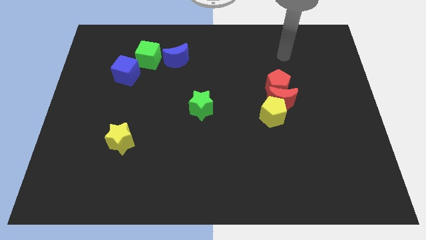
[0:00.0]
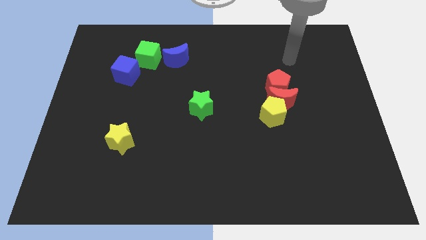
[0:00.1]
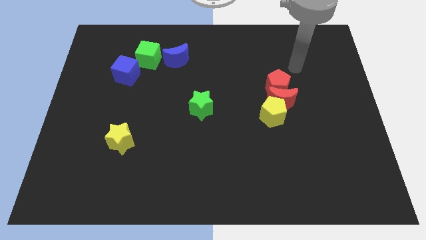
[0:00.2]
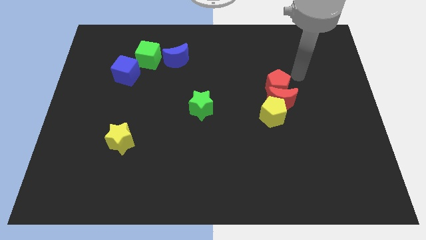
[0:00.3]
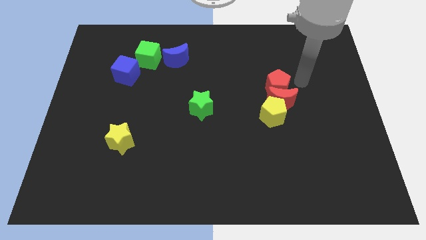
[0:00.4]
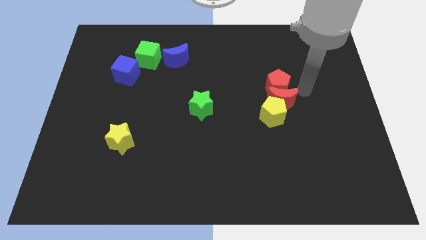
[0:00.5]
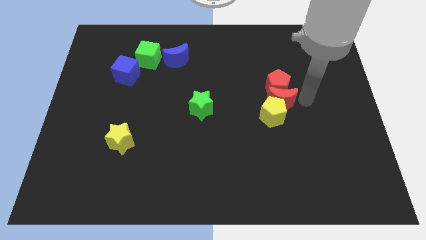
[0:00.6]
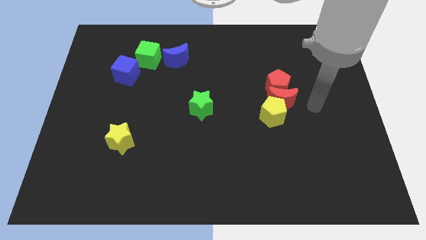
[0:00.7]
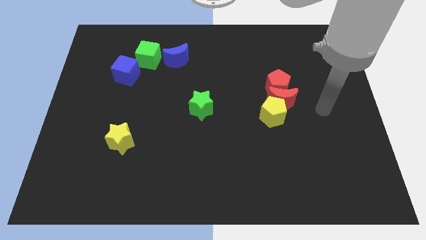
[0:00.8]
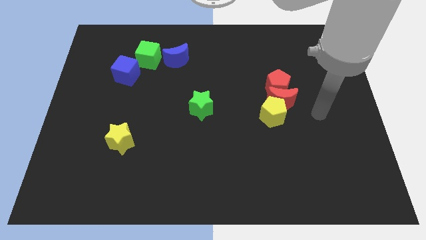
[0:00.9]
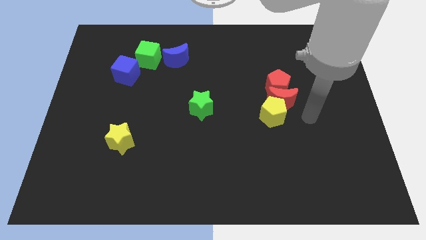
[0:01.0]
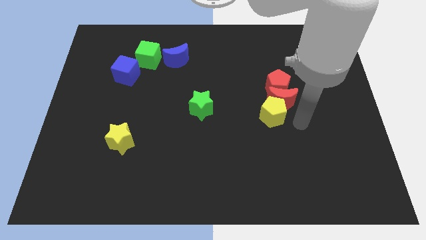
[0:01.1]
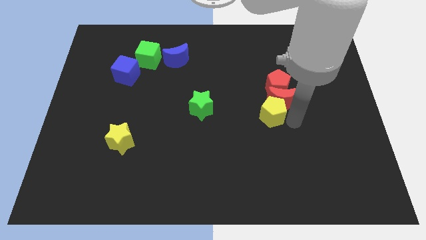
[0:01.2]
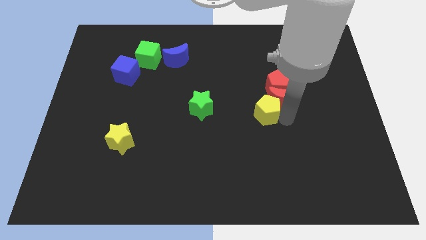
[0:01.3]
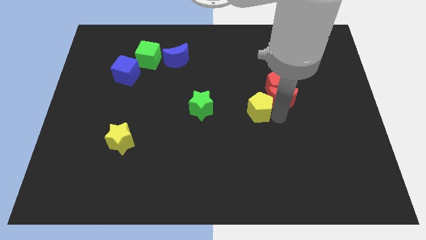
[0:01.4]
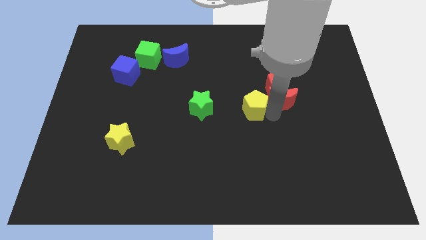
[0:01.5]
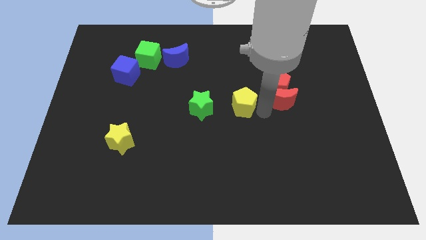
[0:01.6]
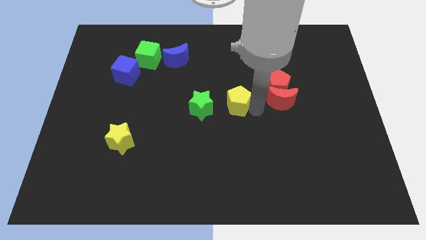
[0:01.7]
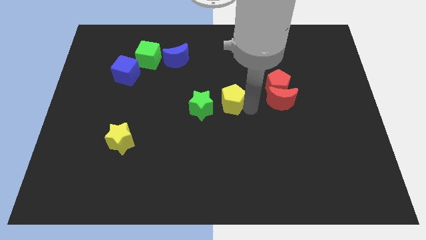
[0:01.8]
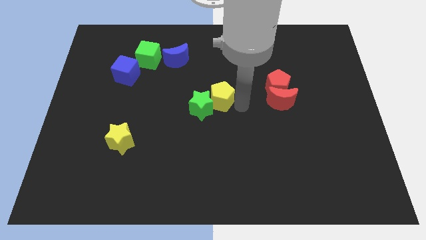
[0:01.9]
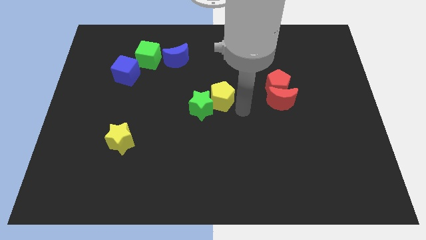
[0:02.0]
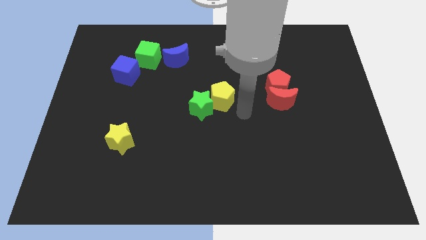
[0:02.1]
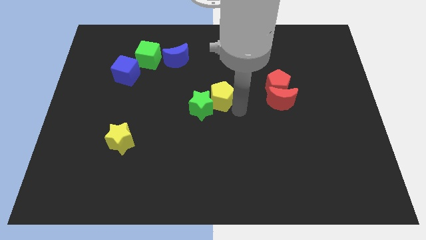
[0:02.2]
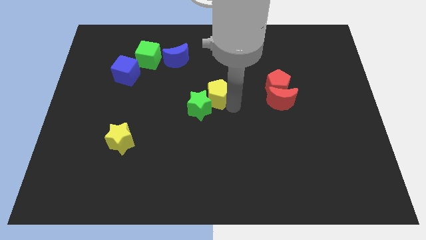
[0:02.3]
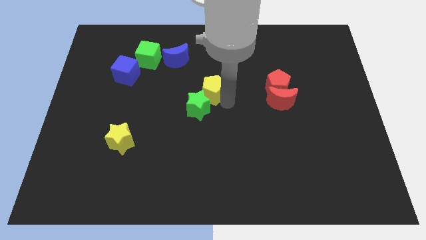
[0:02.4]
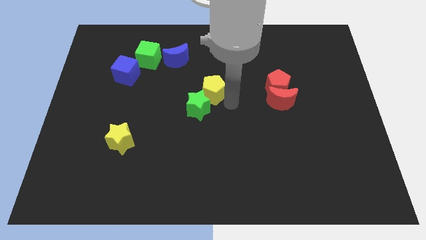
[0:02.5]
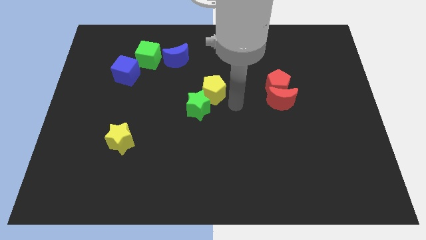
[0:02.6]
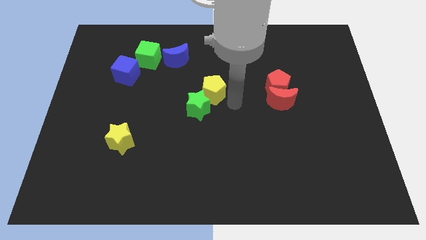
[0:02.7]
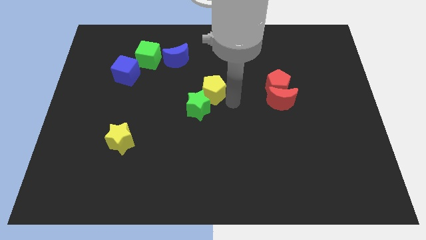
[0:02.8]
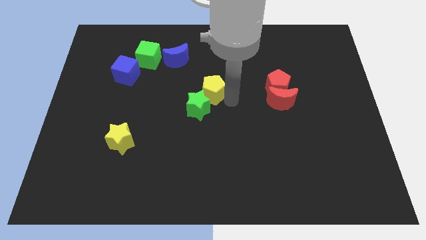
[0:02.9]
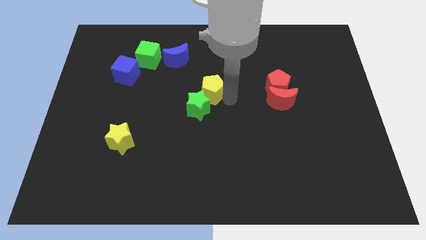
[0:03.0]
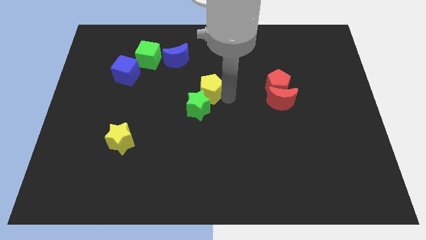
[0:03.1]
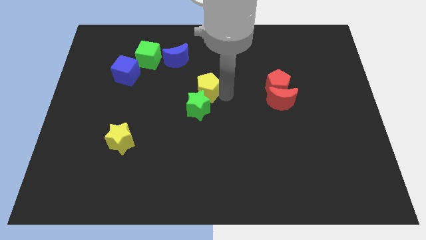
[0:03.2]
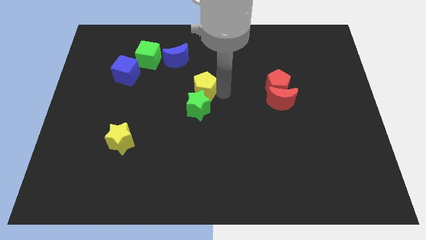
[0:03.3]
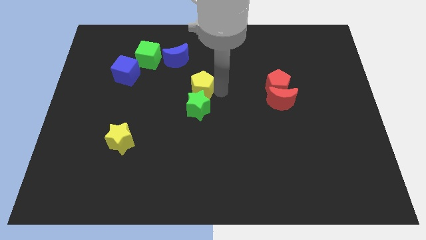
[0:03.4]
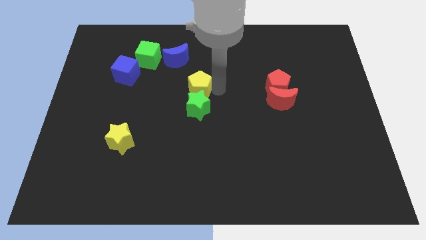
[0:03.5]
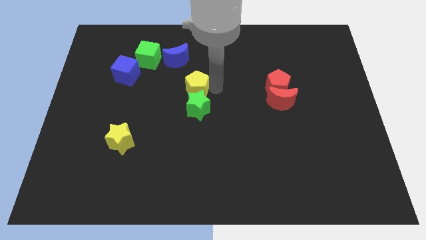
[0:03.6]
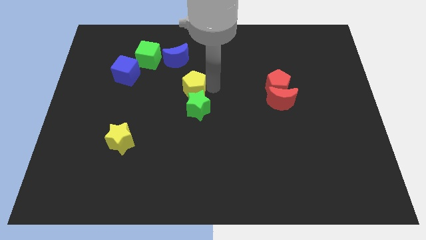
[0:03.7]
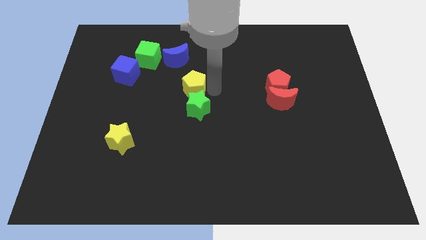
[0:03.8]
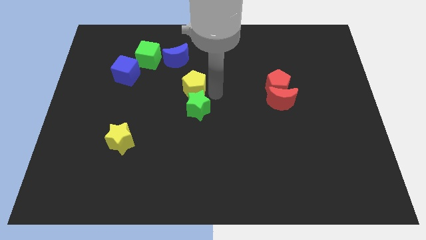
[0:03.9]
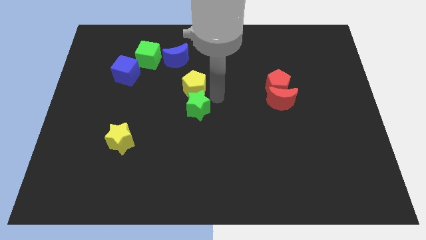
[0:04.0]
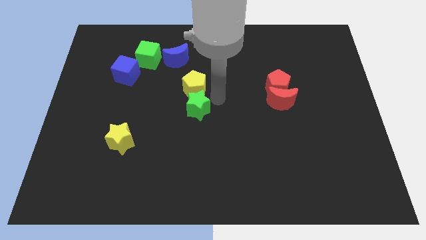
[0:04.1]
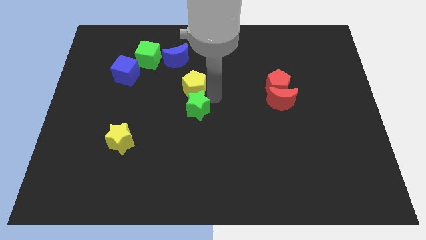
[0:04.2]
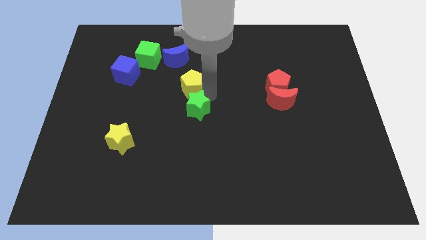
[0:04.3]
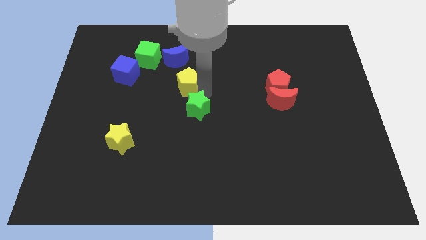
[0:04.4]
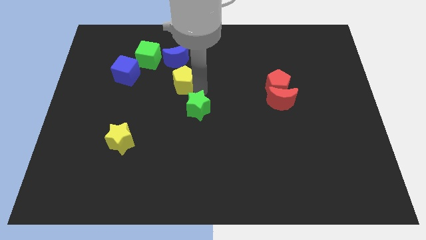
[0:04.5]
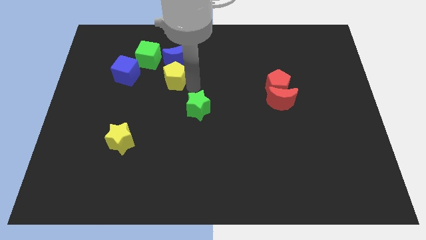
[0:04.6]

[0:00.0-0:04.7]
put the yellow pentagon to the bottom left of the blue moon

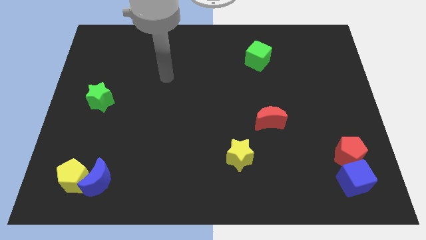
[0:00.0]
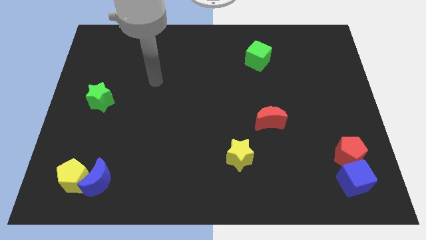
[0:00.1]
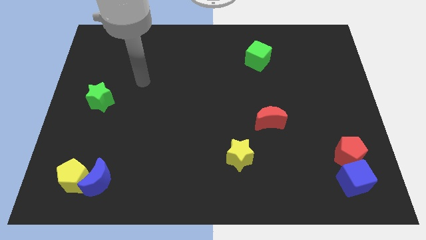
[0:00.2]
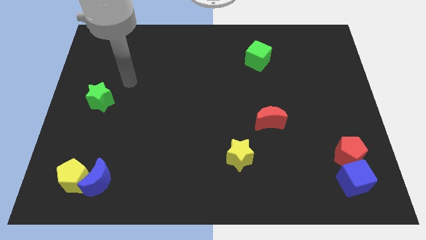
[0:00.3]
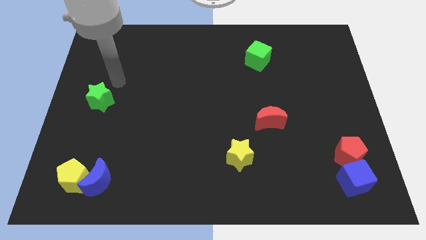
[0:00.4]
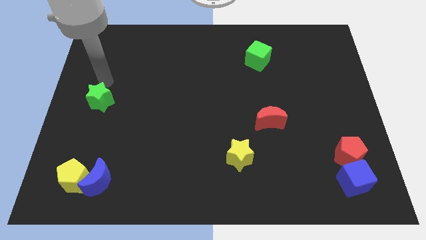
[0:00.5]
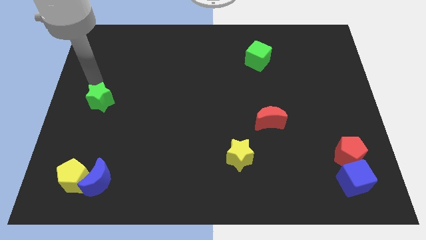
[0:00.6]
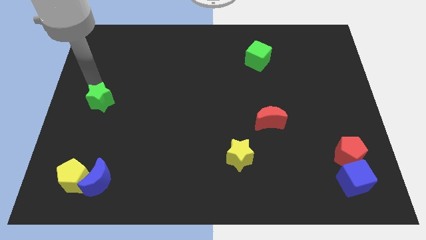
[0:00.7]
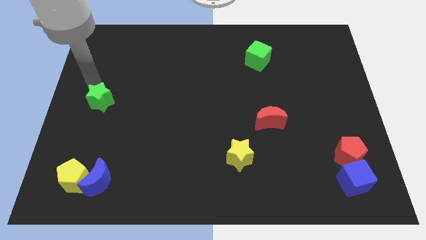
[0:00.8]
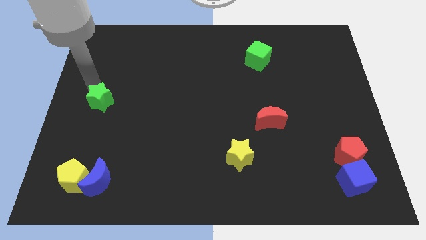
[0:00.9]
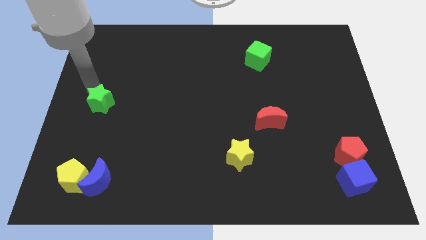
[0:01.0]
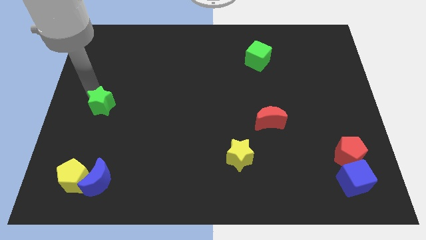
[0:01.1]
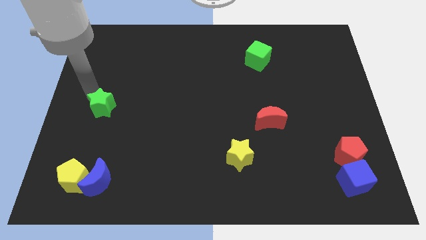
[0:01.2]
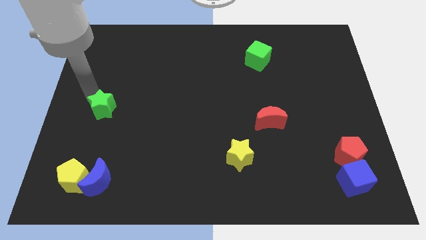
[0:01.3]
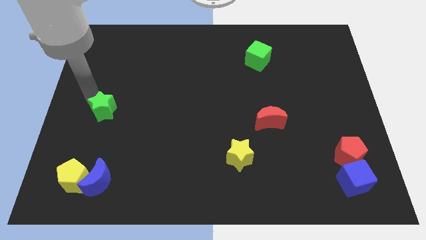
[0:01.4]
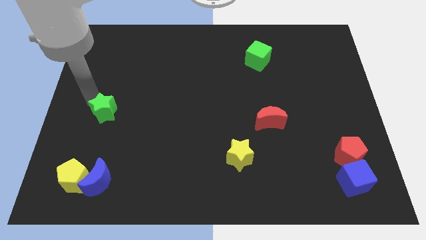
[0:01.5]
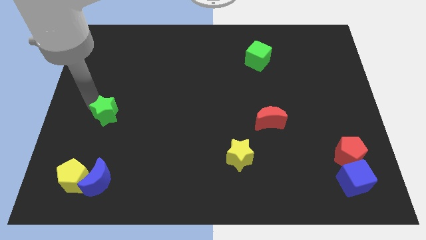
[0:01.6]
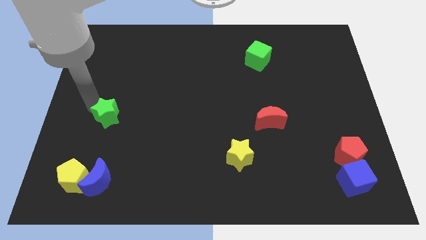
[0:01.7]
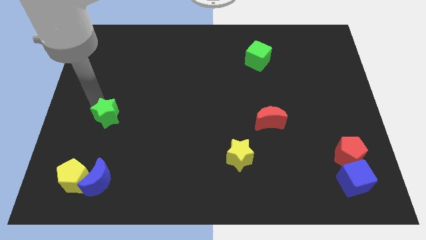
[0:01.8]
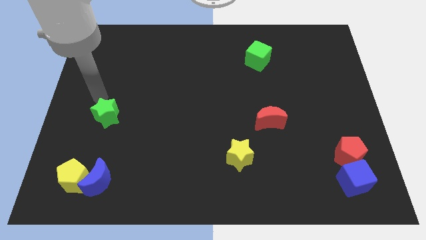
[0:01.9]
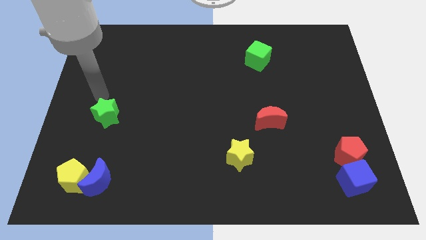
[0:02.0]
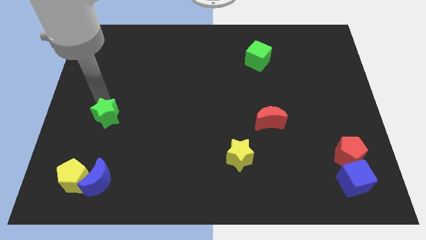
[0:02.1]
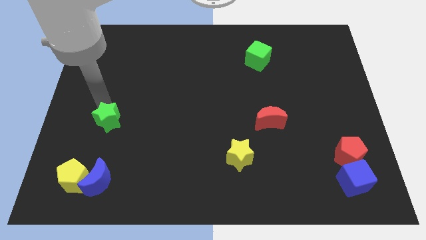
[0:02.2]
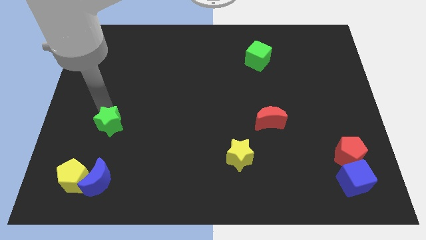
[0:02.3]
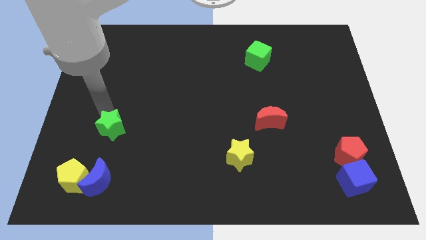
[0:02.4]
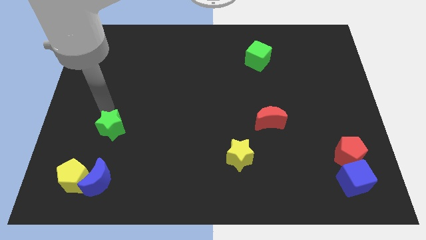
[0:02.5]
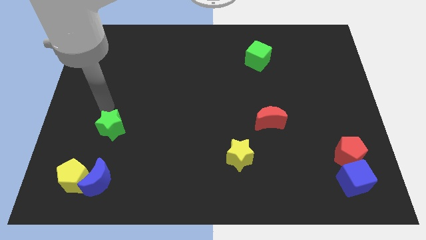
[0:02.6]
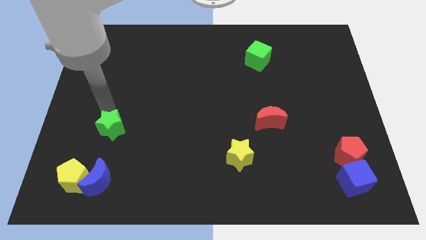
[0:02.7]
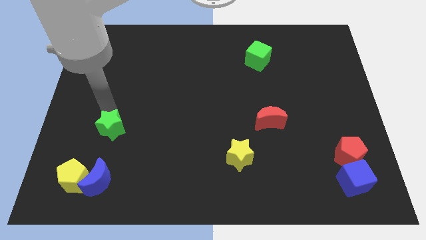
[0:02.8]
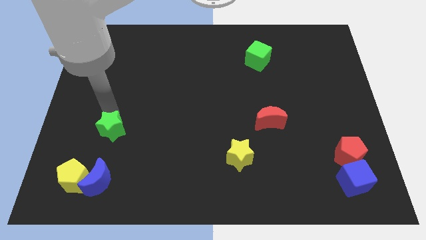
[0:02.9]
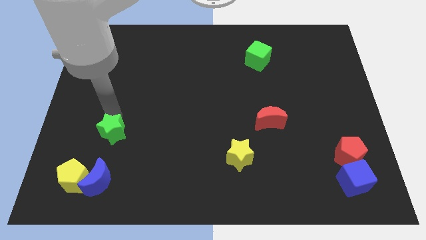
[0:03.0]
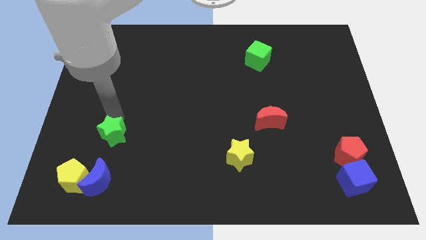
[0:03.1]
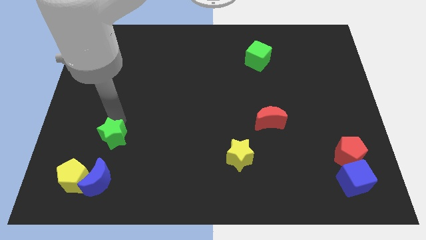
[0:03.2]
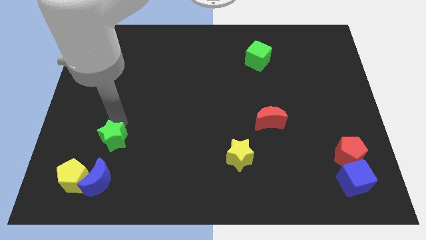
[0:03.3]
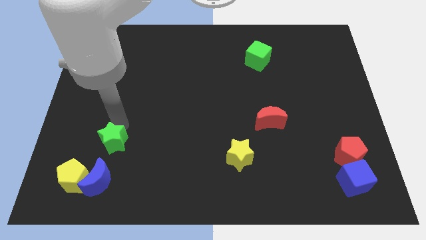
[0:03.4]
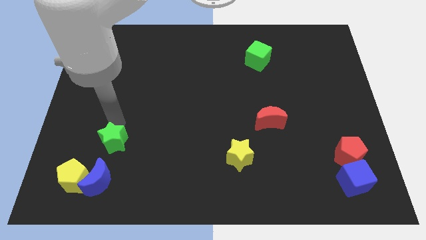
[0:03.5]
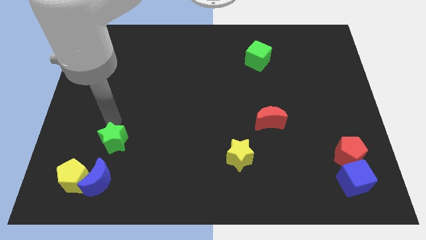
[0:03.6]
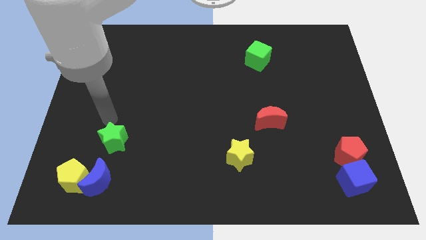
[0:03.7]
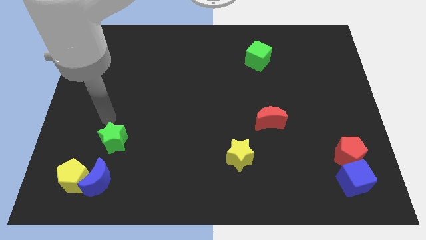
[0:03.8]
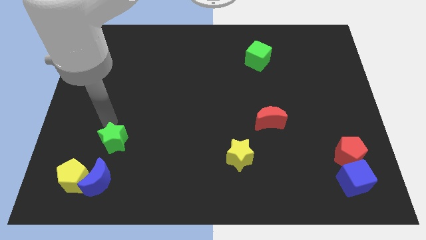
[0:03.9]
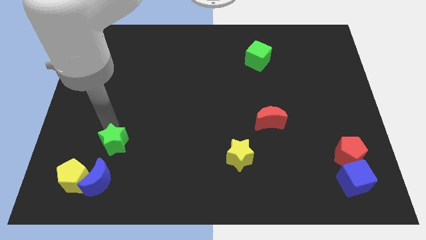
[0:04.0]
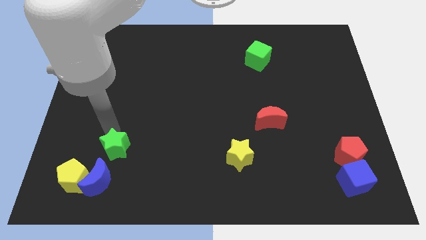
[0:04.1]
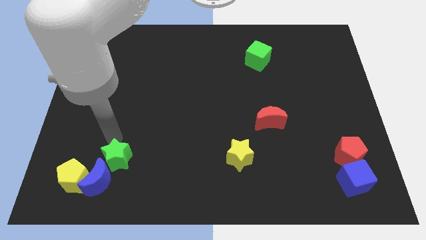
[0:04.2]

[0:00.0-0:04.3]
move the green star to the right of the yellow pentagon
